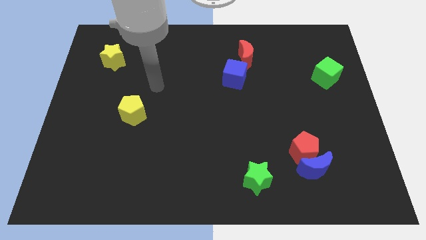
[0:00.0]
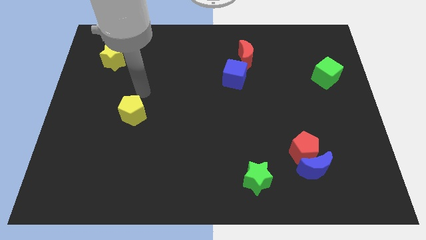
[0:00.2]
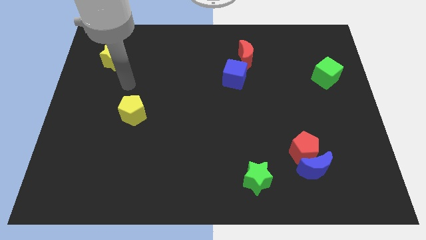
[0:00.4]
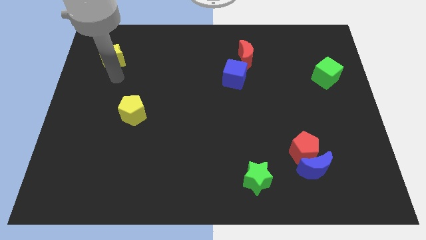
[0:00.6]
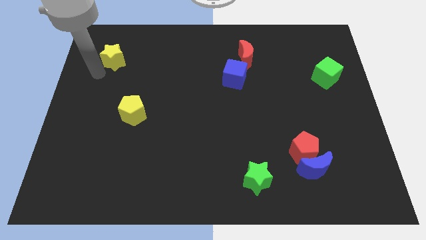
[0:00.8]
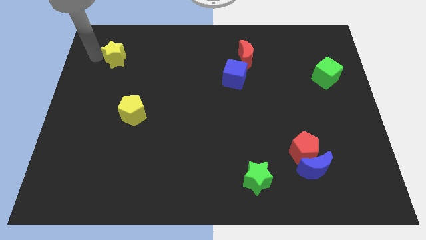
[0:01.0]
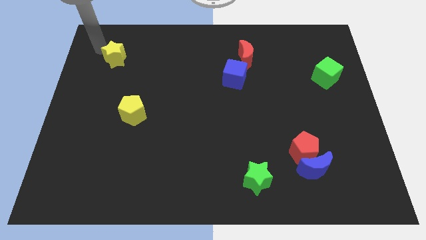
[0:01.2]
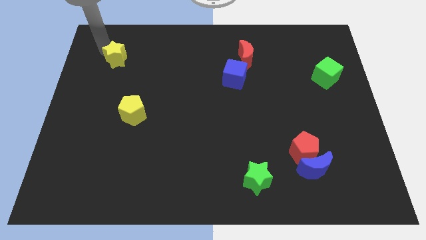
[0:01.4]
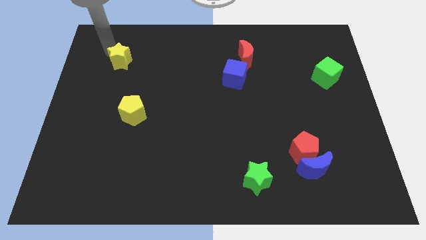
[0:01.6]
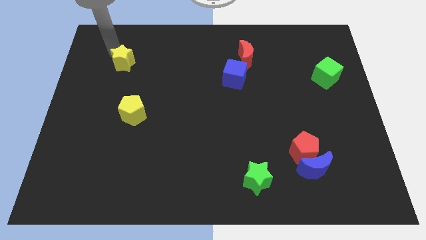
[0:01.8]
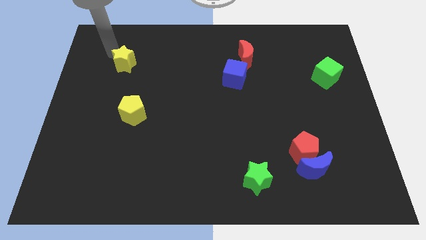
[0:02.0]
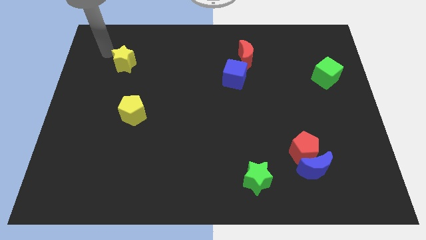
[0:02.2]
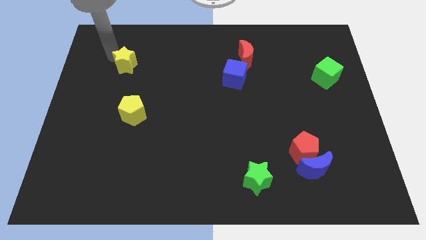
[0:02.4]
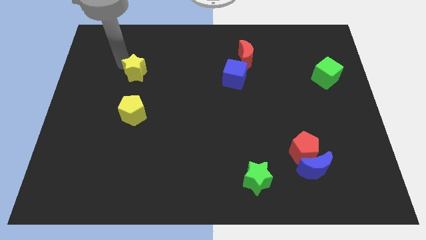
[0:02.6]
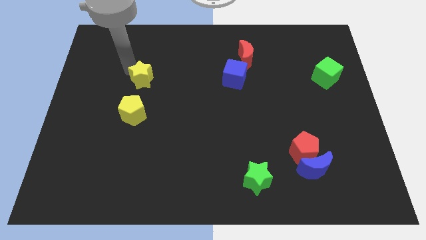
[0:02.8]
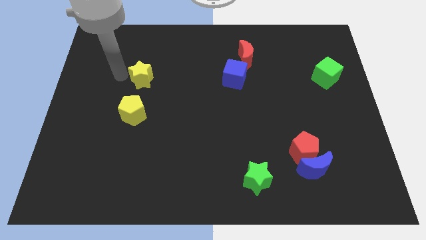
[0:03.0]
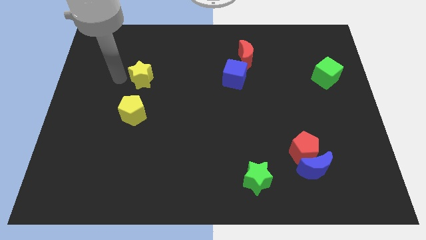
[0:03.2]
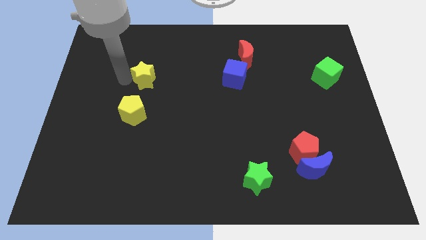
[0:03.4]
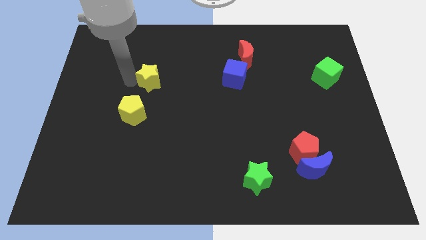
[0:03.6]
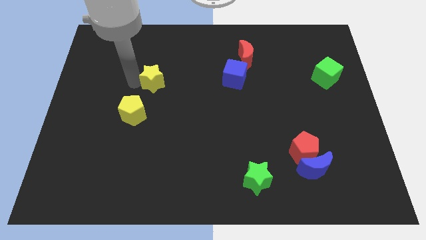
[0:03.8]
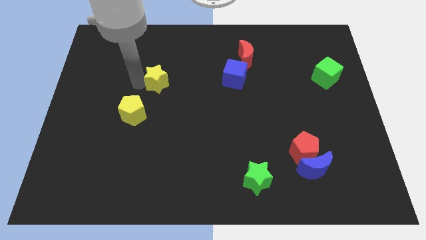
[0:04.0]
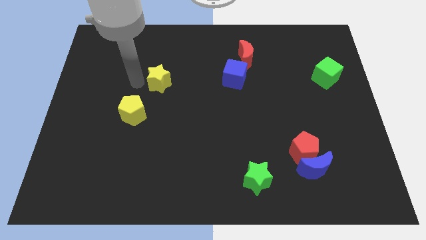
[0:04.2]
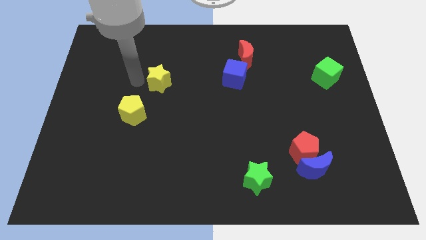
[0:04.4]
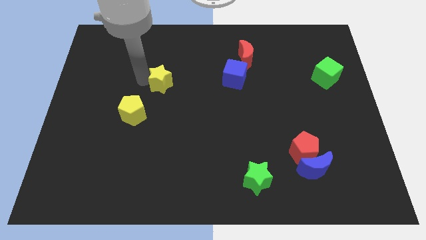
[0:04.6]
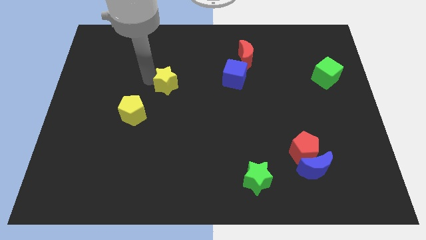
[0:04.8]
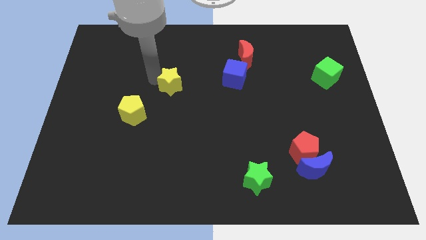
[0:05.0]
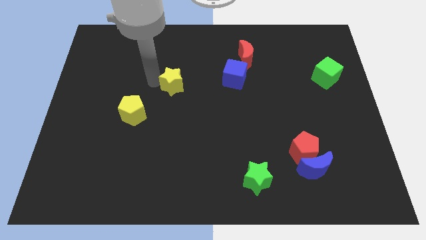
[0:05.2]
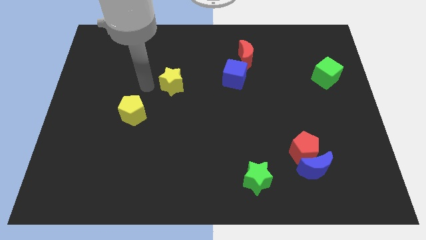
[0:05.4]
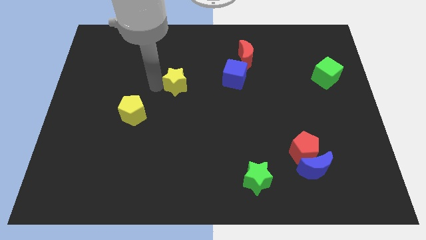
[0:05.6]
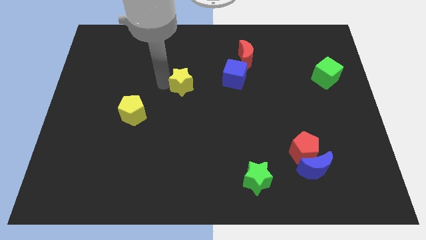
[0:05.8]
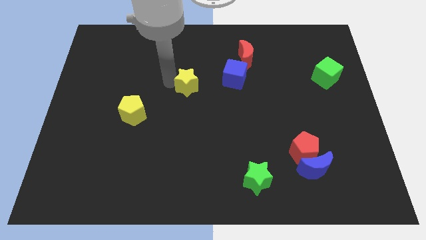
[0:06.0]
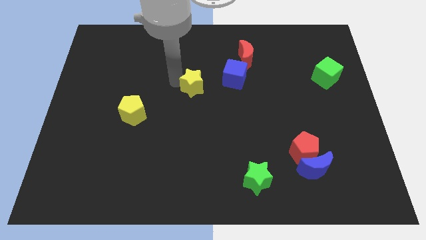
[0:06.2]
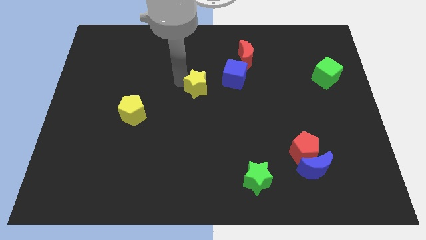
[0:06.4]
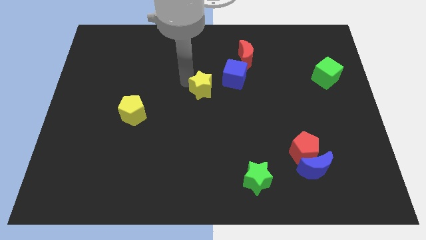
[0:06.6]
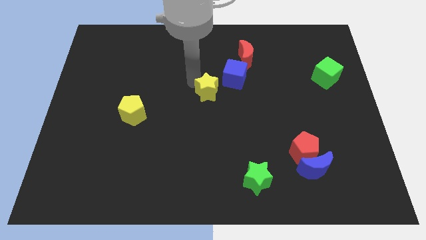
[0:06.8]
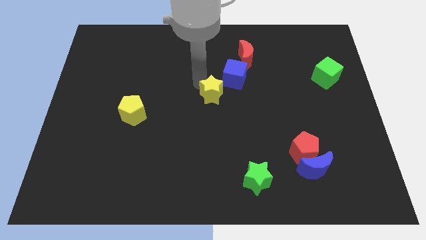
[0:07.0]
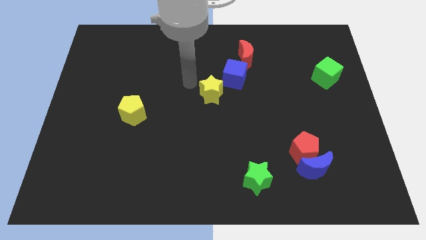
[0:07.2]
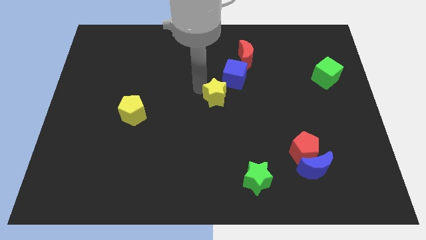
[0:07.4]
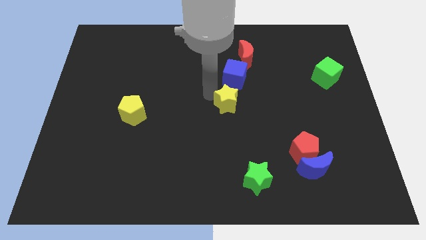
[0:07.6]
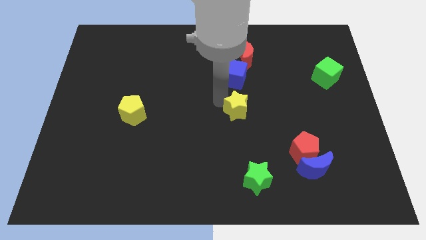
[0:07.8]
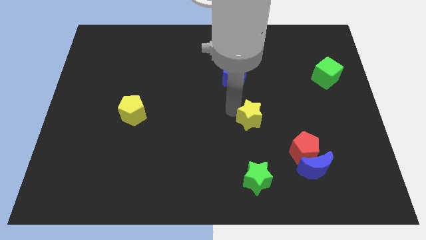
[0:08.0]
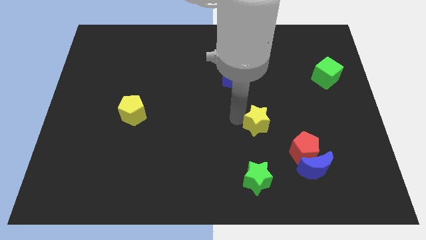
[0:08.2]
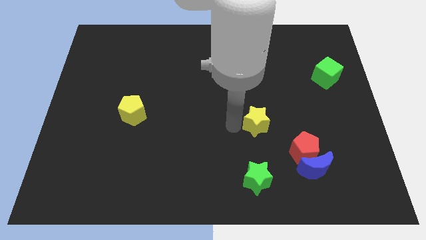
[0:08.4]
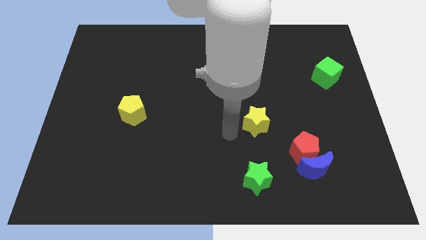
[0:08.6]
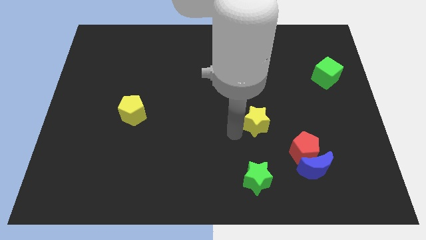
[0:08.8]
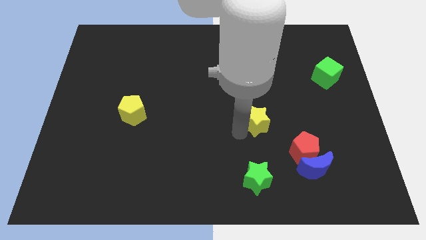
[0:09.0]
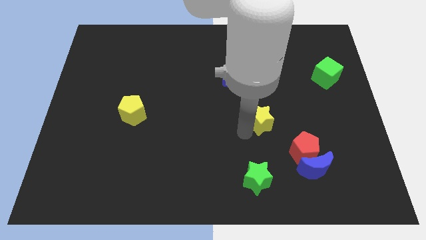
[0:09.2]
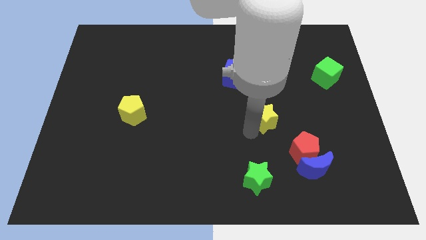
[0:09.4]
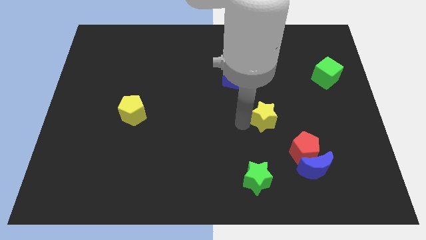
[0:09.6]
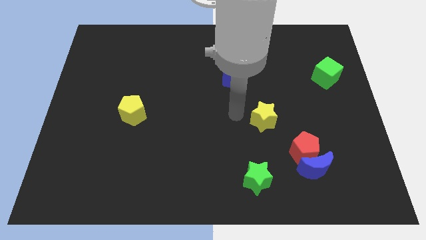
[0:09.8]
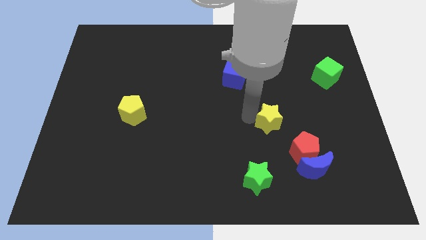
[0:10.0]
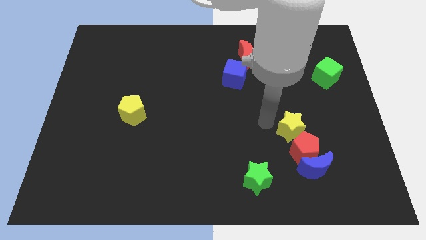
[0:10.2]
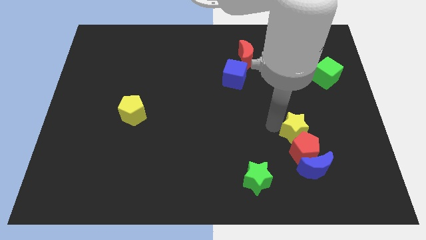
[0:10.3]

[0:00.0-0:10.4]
slide the yellow star to the top right side of the red pentagon

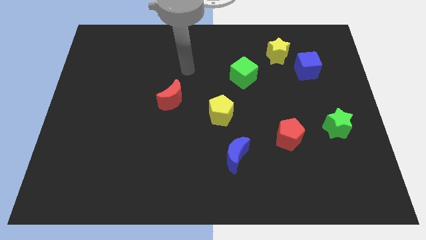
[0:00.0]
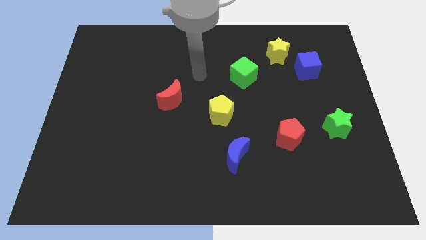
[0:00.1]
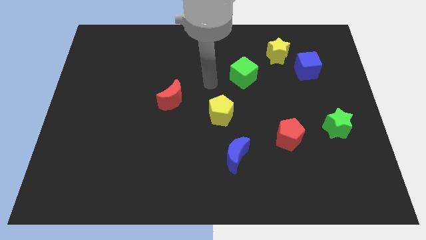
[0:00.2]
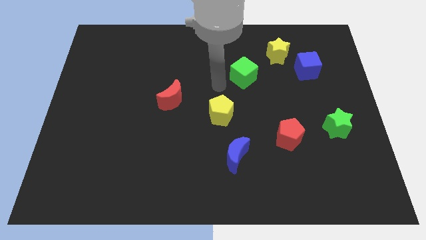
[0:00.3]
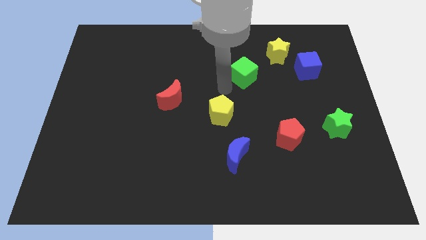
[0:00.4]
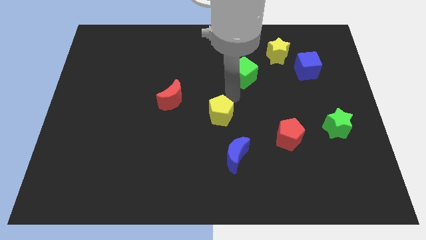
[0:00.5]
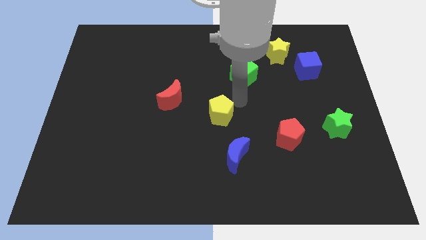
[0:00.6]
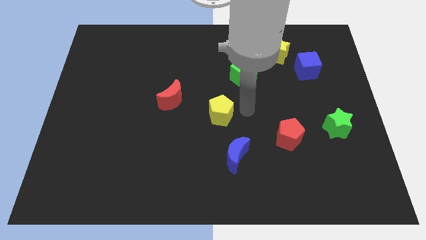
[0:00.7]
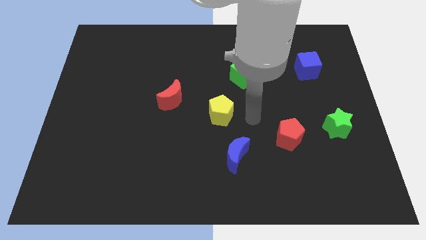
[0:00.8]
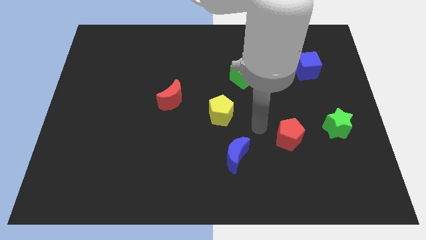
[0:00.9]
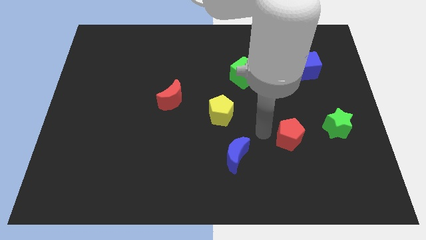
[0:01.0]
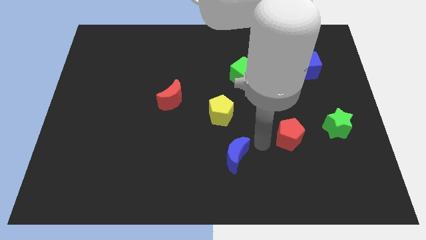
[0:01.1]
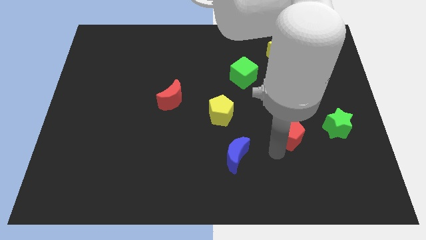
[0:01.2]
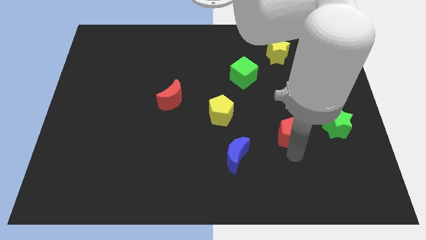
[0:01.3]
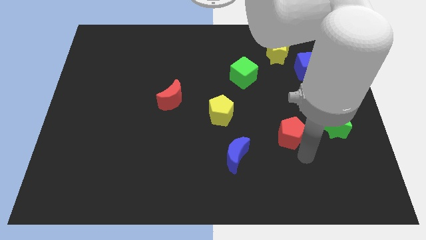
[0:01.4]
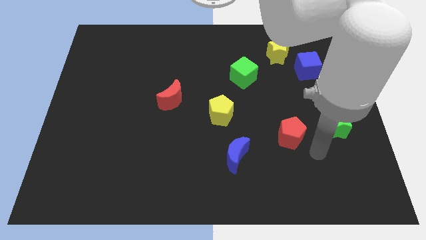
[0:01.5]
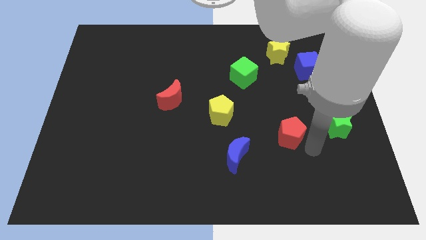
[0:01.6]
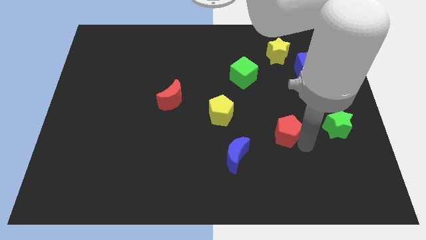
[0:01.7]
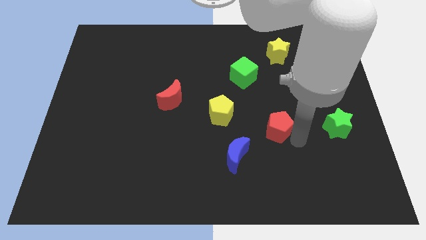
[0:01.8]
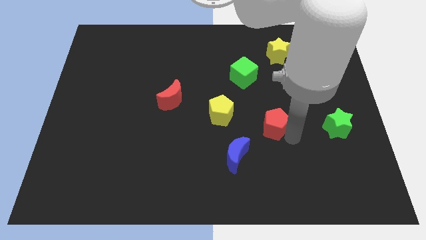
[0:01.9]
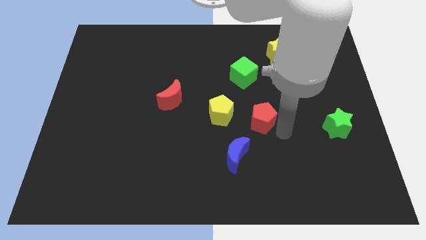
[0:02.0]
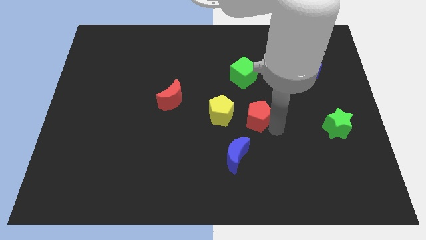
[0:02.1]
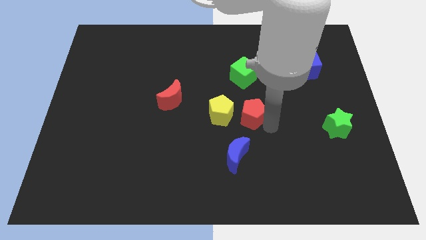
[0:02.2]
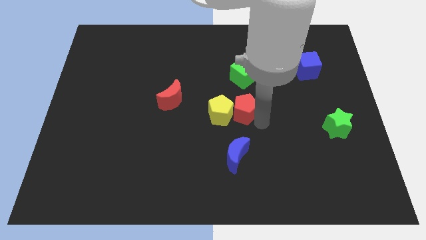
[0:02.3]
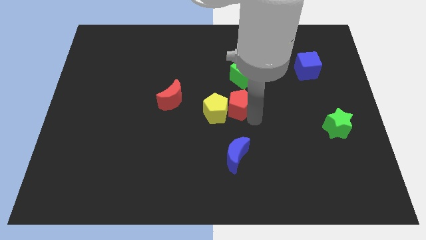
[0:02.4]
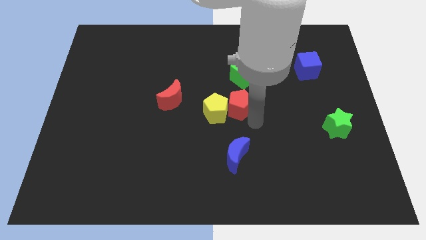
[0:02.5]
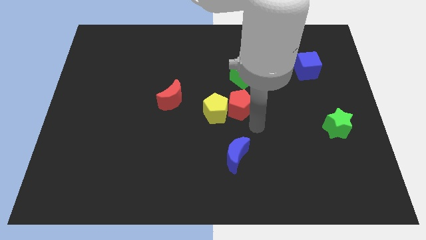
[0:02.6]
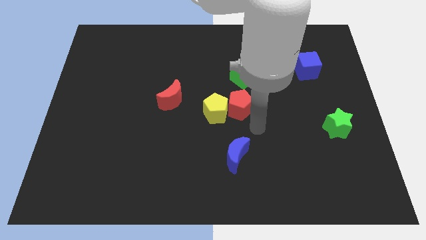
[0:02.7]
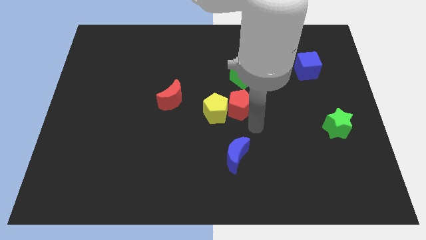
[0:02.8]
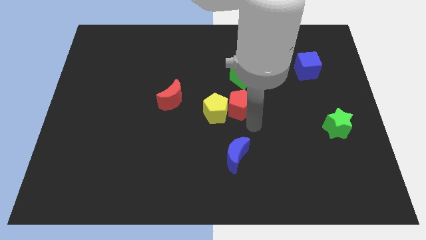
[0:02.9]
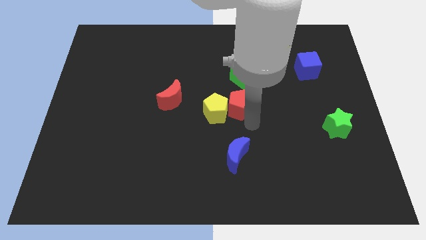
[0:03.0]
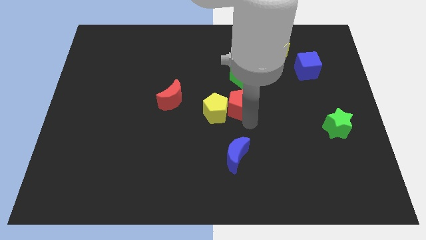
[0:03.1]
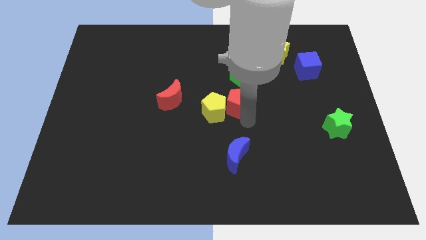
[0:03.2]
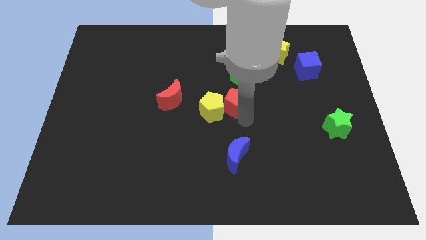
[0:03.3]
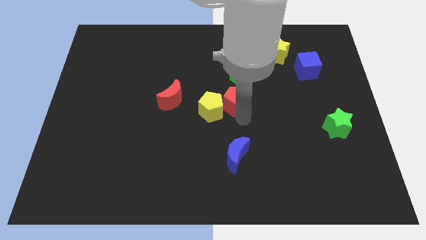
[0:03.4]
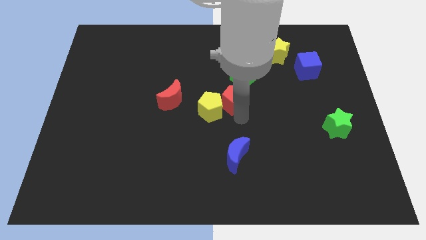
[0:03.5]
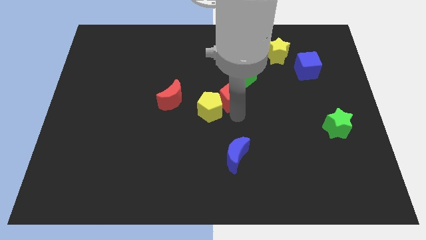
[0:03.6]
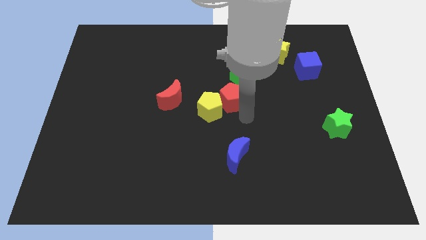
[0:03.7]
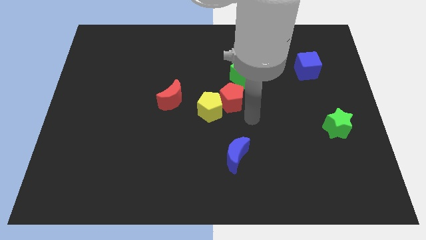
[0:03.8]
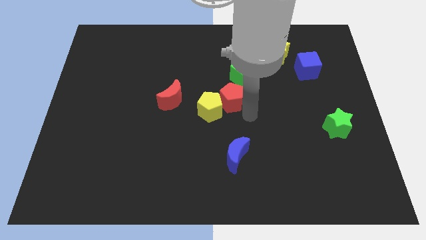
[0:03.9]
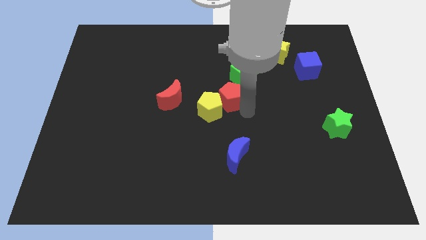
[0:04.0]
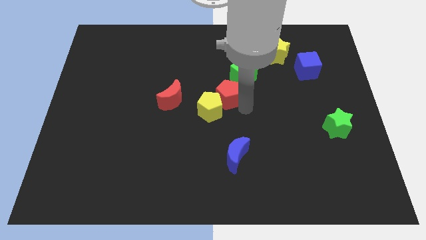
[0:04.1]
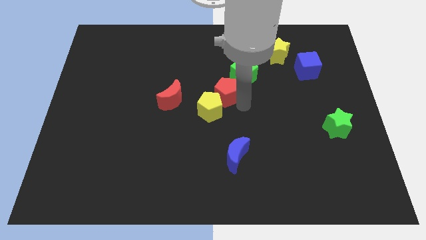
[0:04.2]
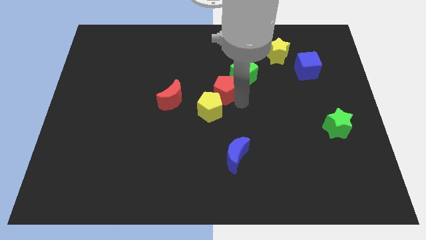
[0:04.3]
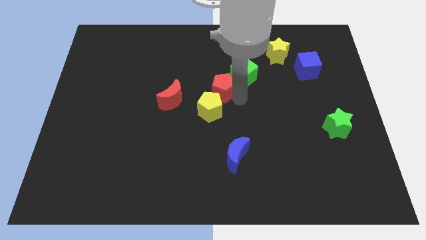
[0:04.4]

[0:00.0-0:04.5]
slide the red pentagon just left of the green cube
